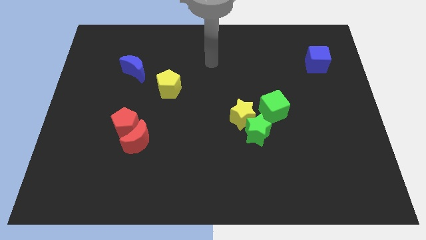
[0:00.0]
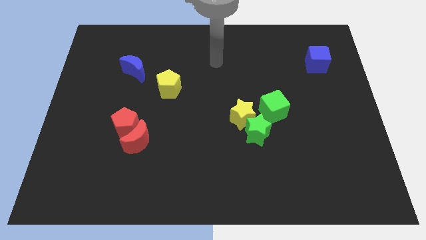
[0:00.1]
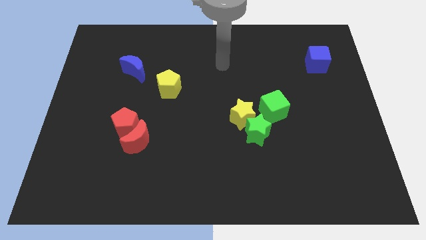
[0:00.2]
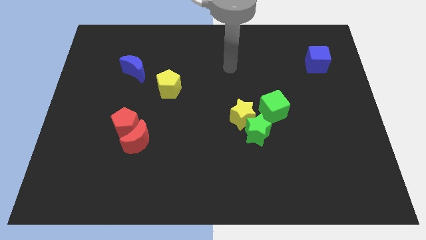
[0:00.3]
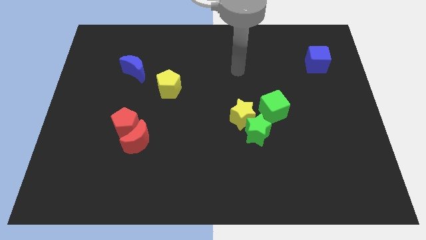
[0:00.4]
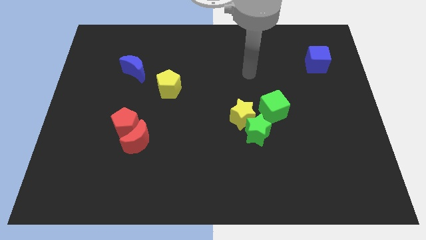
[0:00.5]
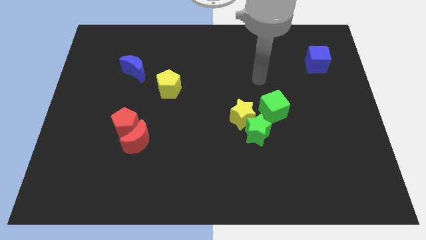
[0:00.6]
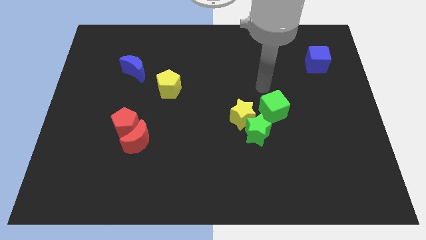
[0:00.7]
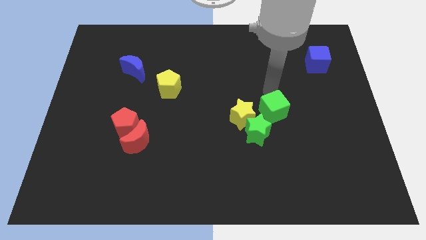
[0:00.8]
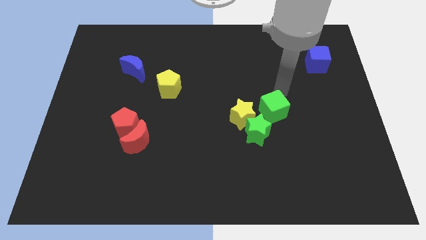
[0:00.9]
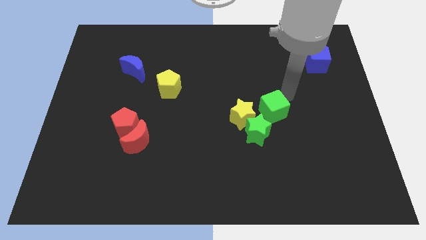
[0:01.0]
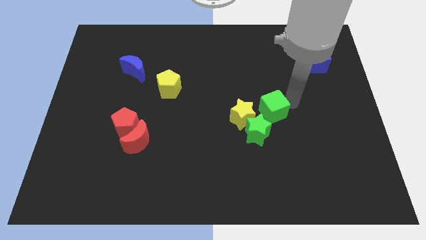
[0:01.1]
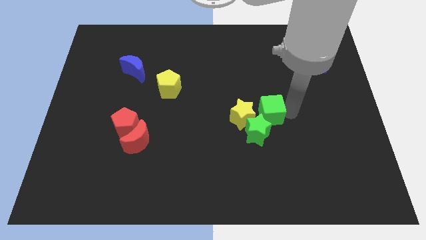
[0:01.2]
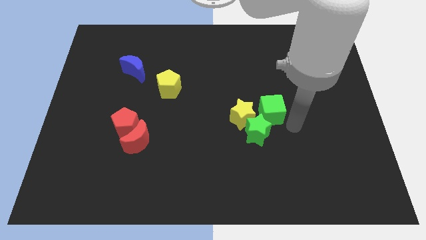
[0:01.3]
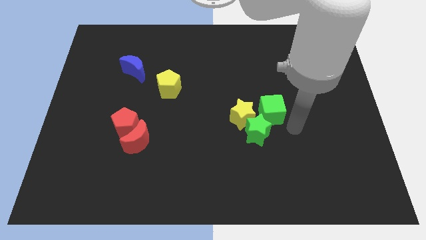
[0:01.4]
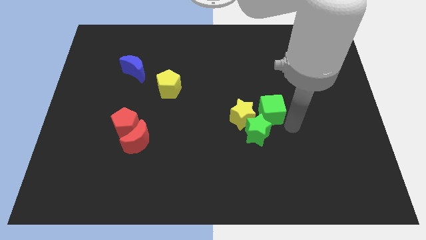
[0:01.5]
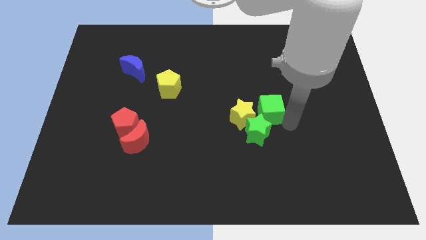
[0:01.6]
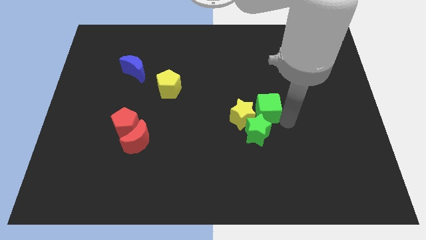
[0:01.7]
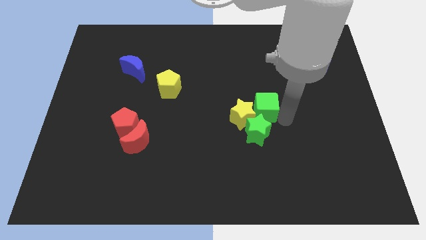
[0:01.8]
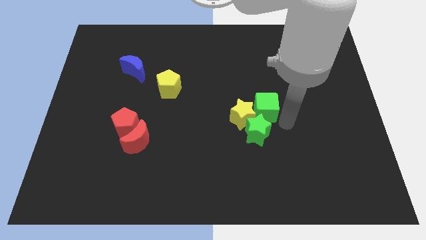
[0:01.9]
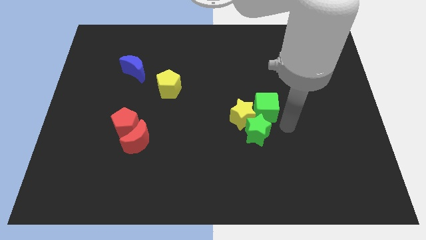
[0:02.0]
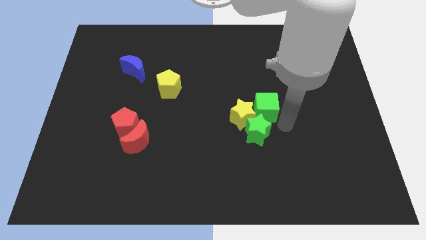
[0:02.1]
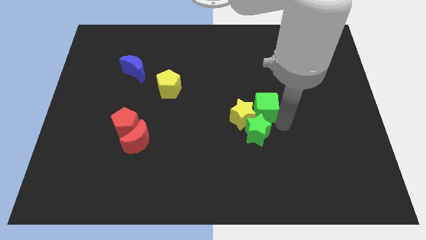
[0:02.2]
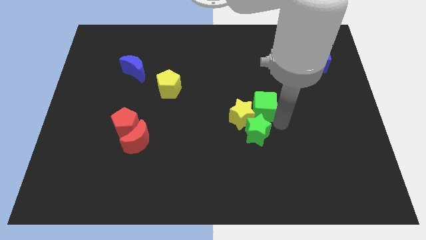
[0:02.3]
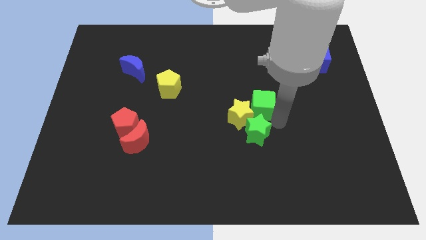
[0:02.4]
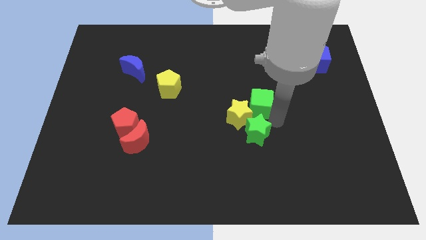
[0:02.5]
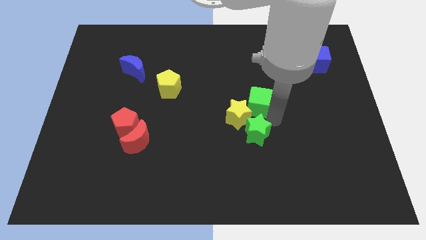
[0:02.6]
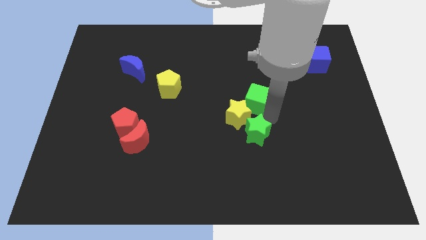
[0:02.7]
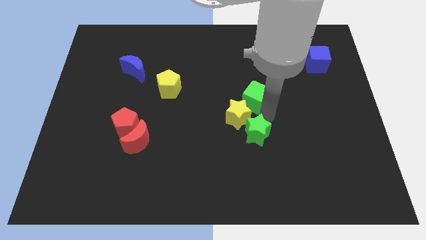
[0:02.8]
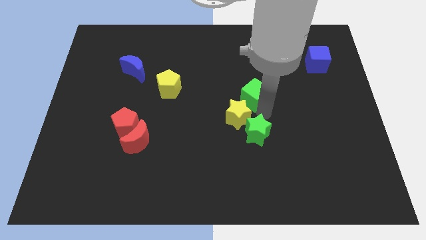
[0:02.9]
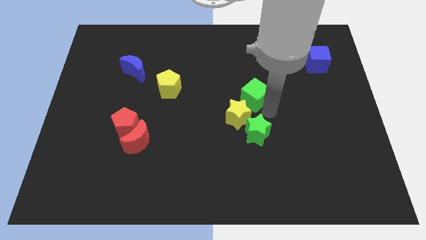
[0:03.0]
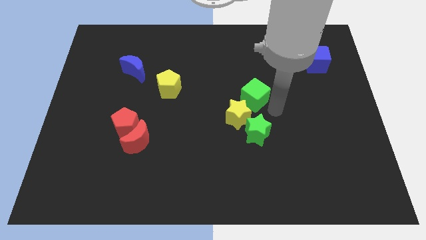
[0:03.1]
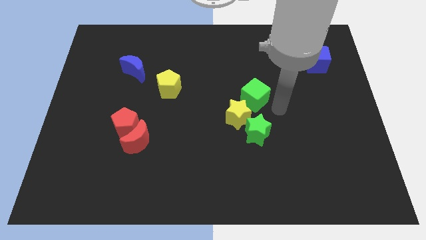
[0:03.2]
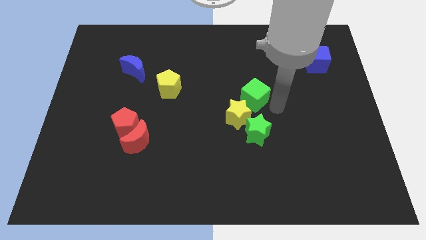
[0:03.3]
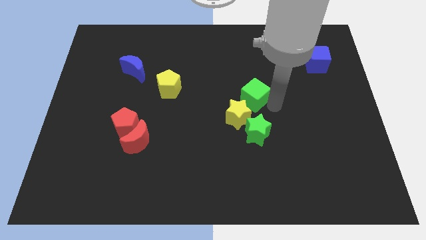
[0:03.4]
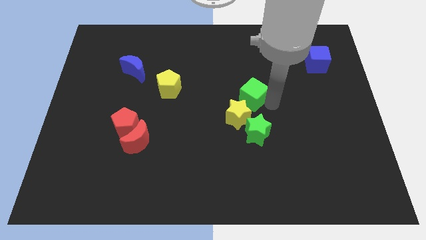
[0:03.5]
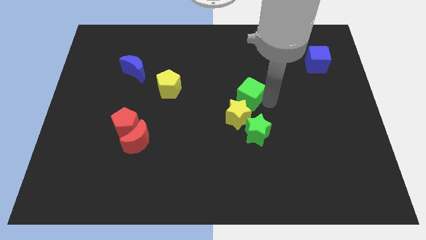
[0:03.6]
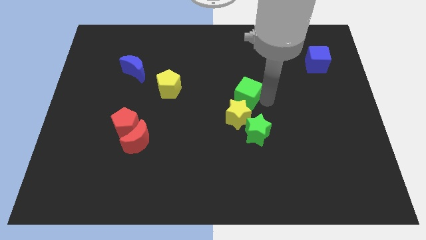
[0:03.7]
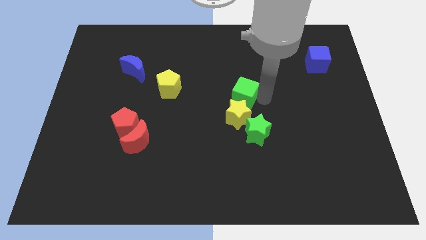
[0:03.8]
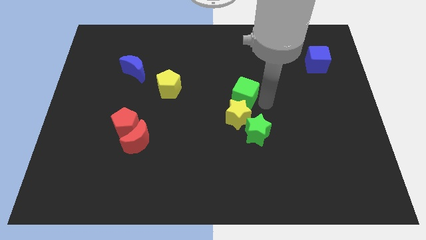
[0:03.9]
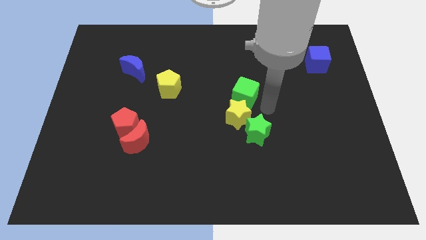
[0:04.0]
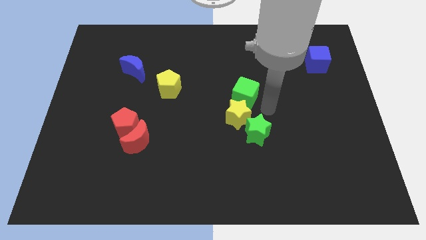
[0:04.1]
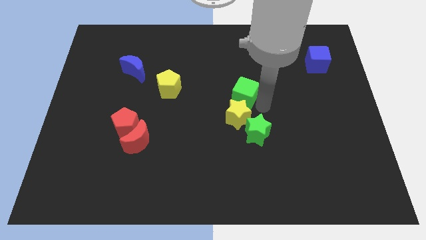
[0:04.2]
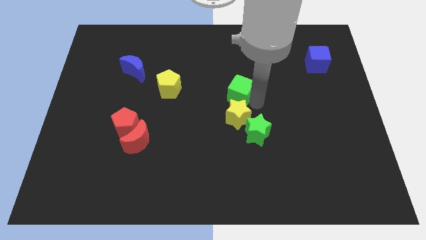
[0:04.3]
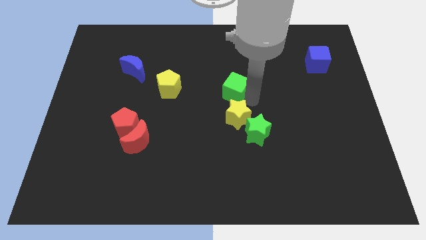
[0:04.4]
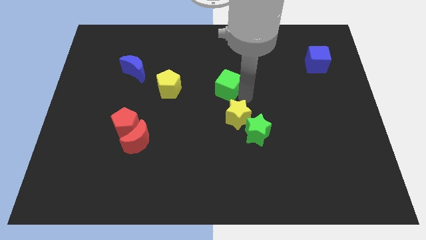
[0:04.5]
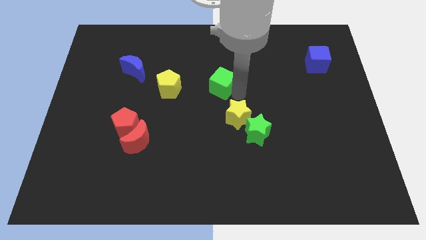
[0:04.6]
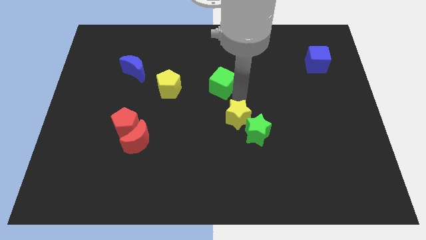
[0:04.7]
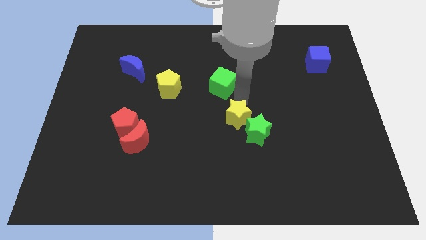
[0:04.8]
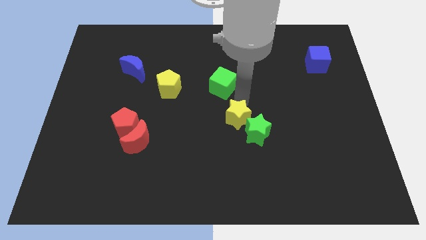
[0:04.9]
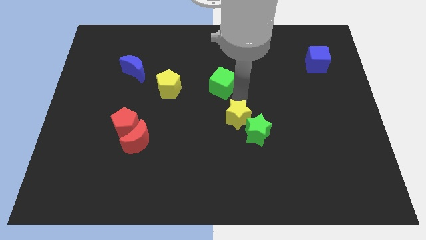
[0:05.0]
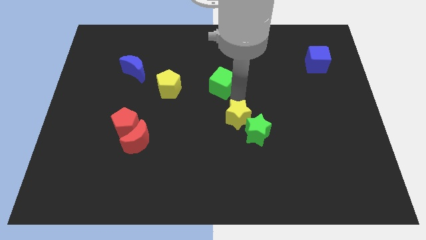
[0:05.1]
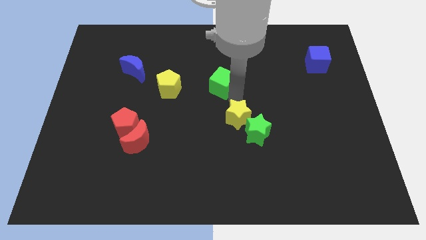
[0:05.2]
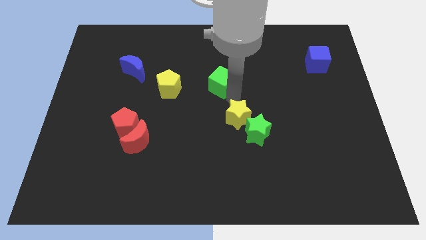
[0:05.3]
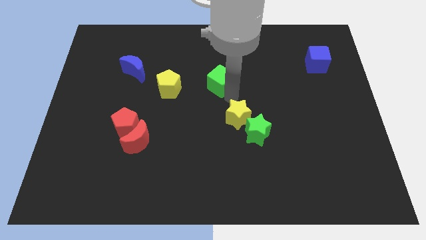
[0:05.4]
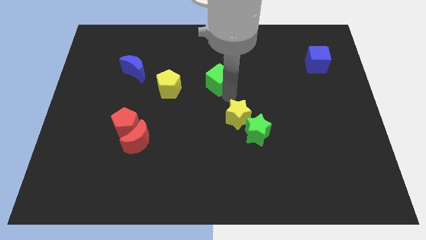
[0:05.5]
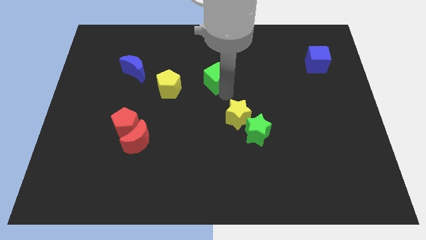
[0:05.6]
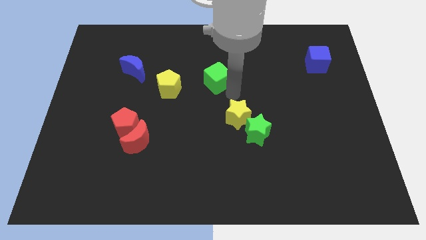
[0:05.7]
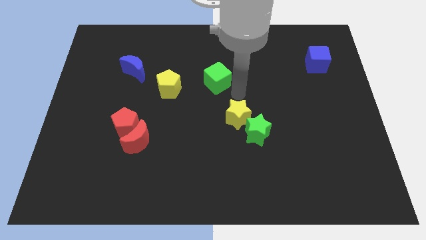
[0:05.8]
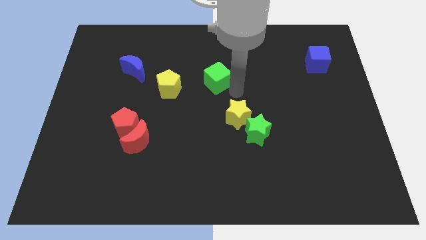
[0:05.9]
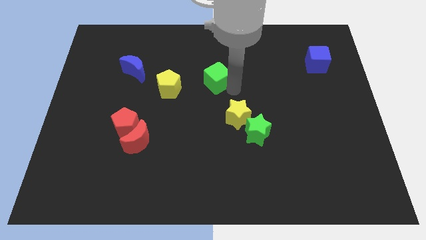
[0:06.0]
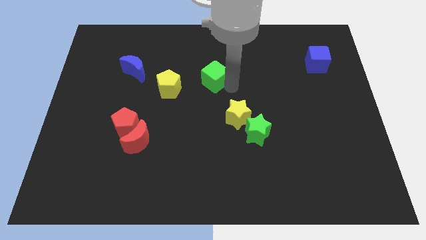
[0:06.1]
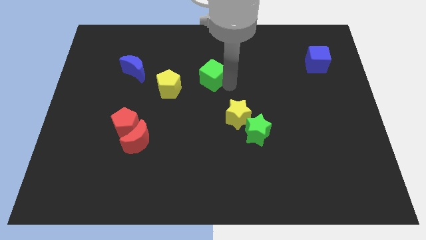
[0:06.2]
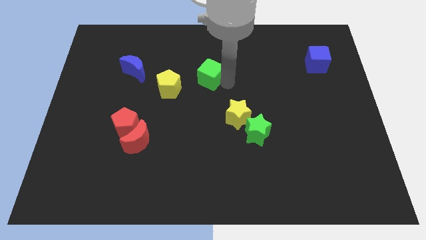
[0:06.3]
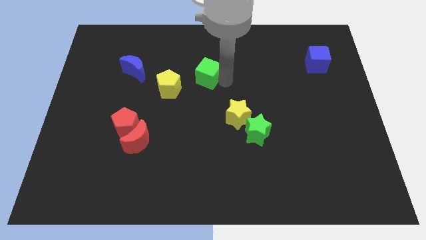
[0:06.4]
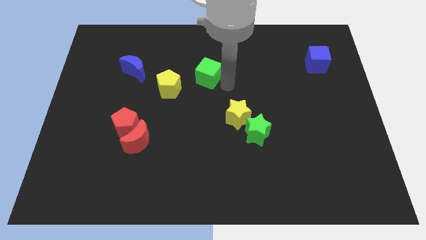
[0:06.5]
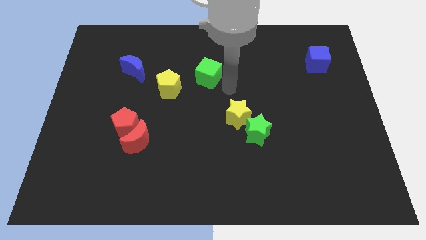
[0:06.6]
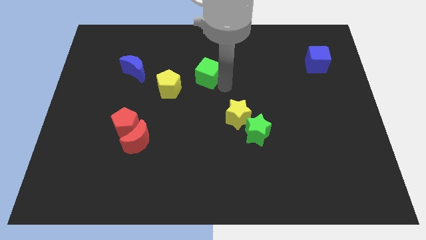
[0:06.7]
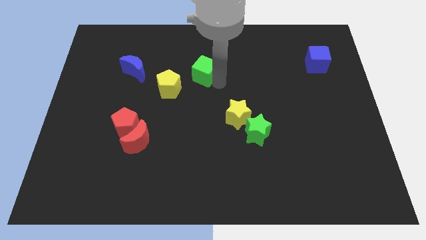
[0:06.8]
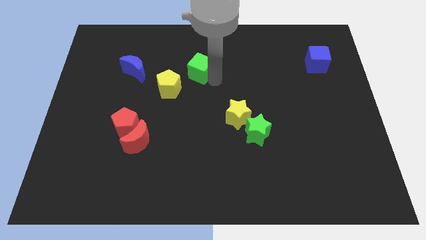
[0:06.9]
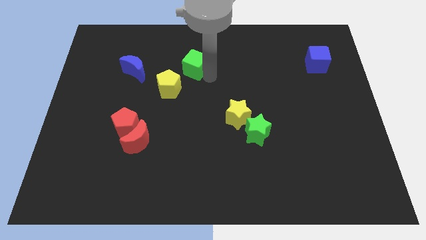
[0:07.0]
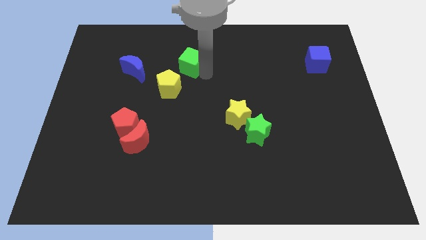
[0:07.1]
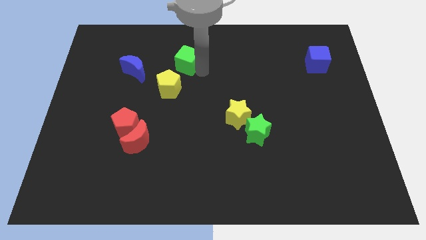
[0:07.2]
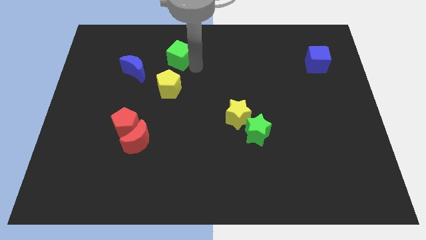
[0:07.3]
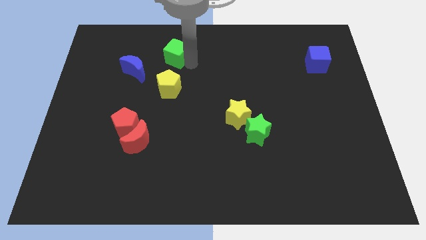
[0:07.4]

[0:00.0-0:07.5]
put the green cube to the top right of the blue moon
